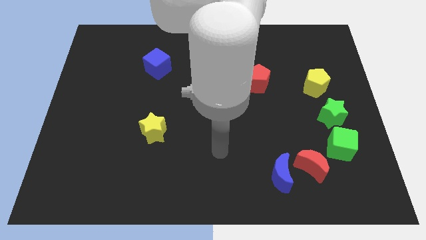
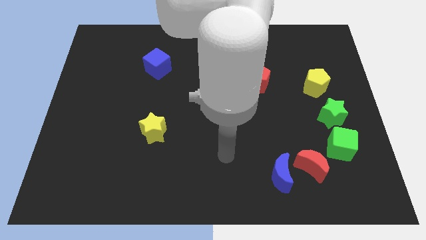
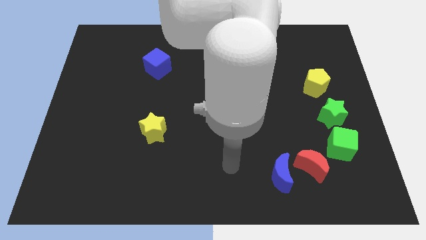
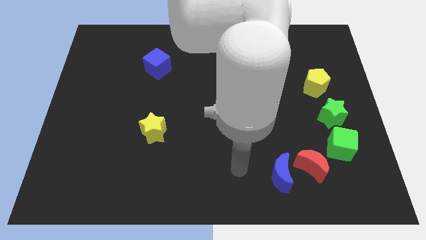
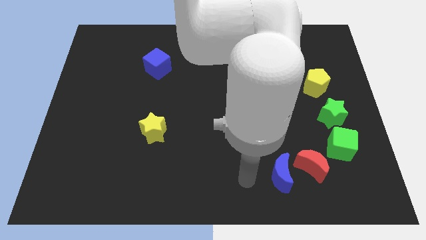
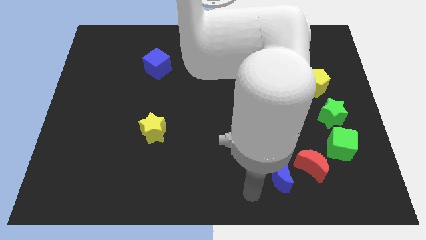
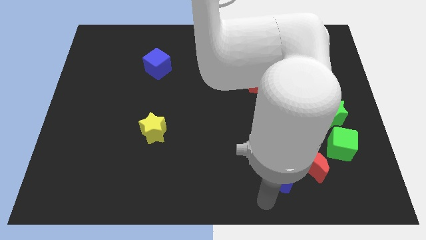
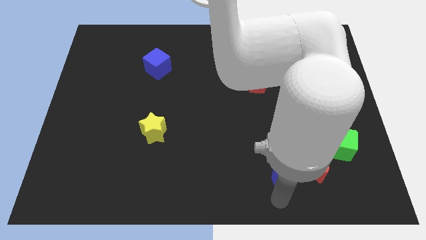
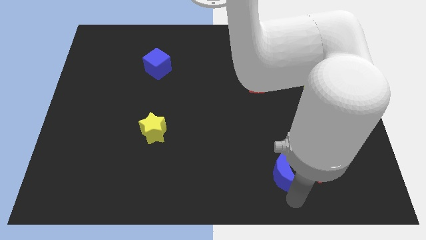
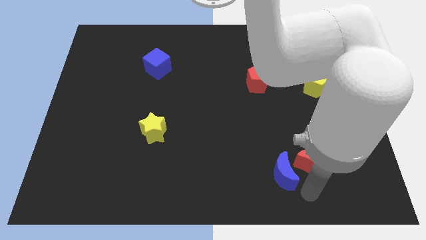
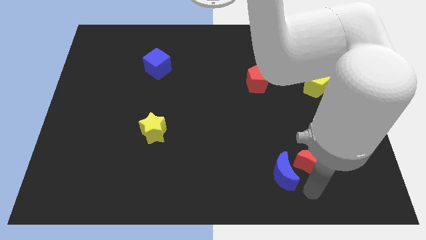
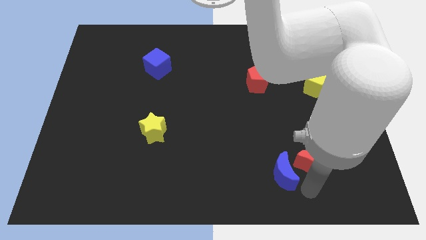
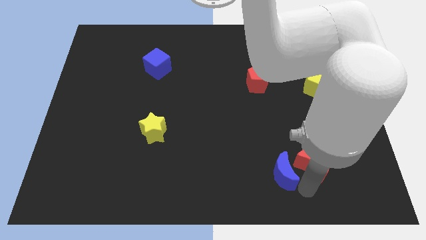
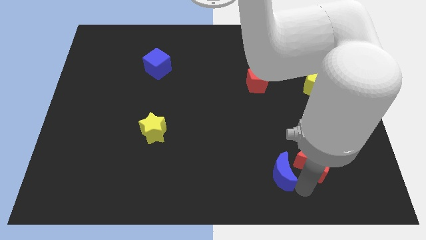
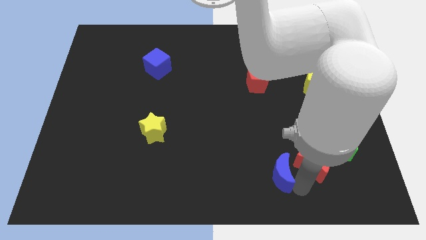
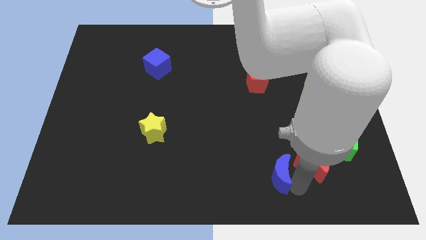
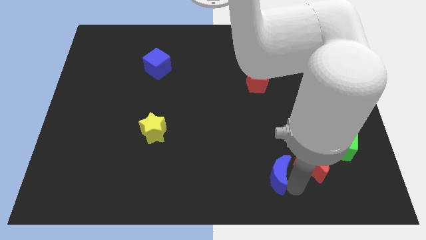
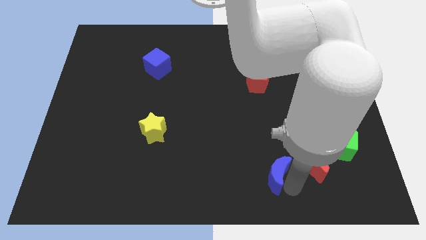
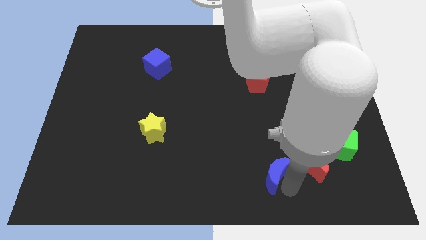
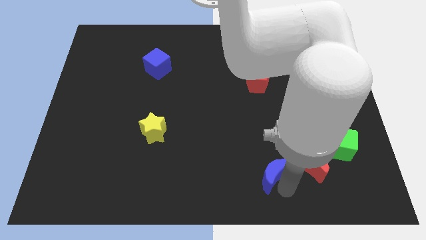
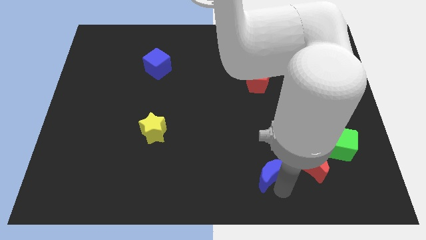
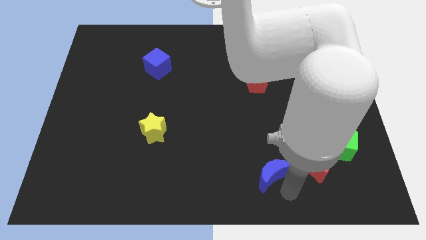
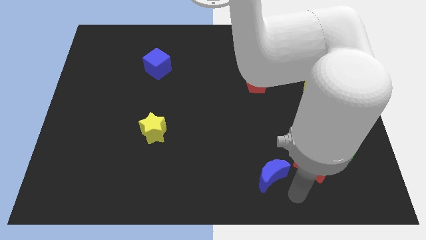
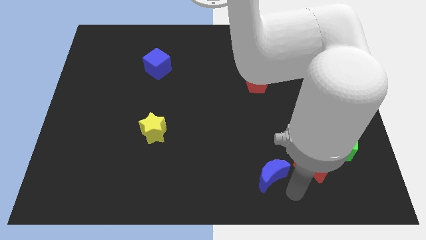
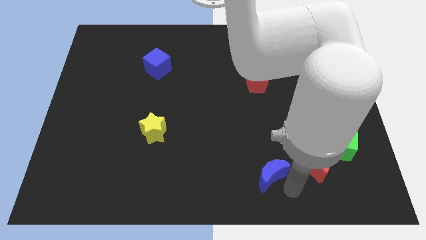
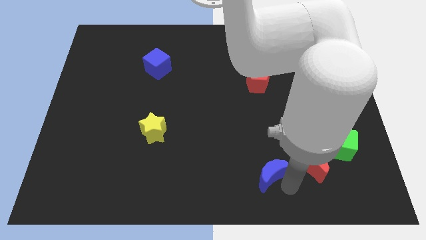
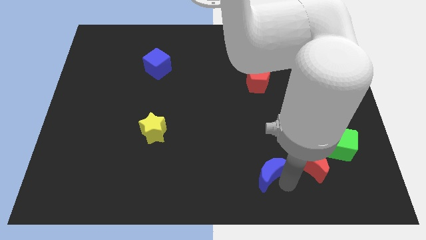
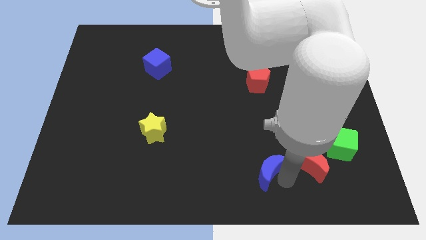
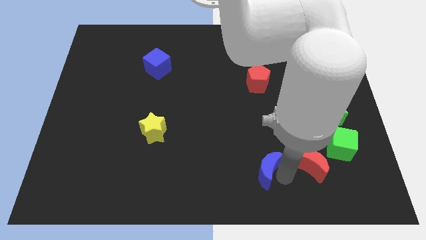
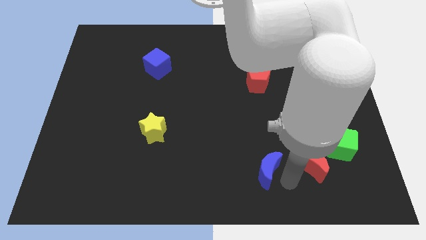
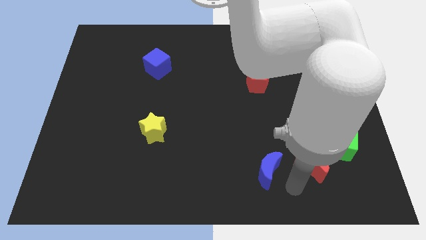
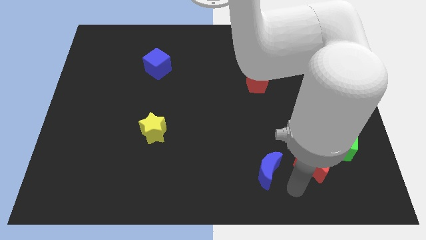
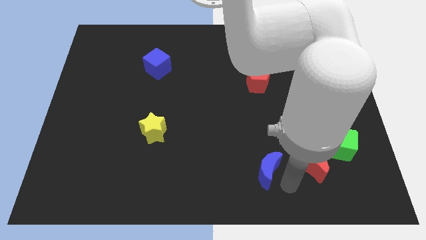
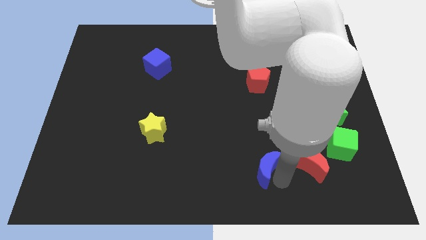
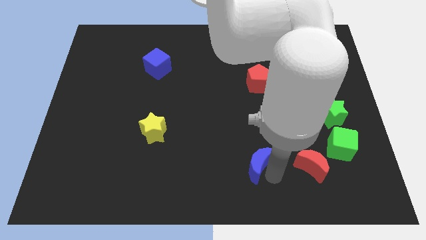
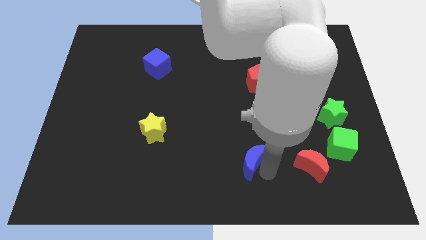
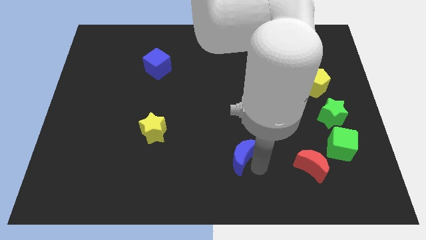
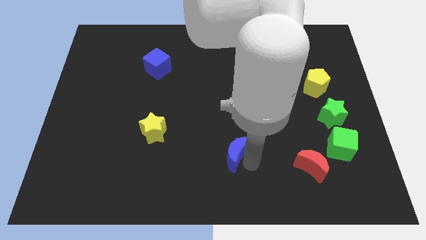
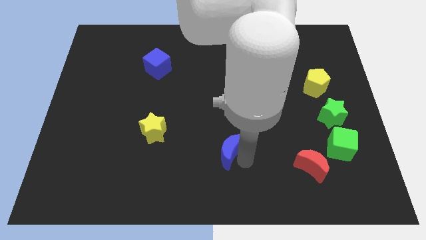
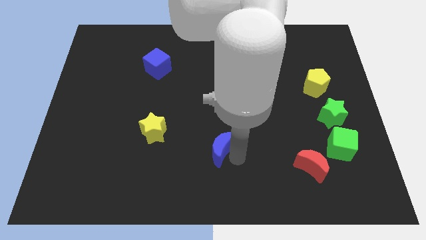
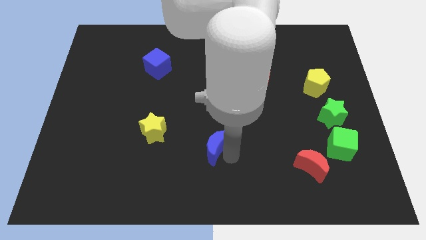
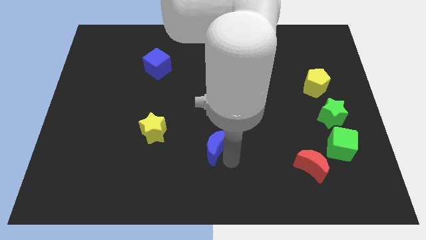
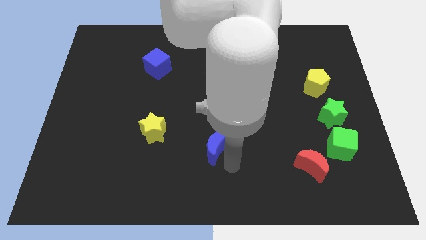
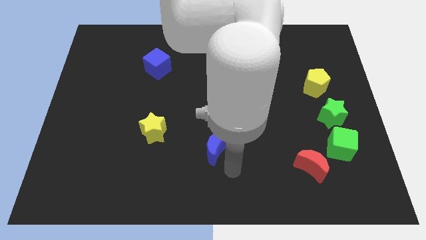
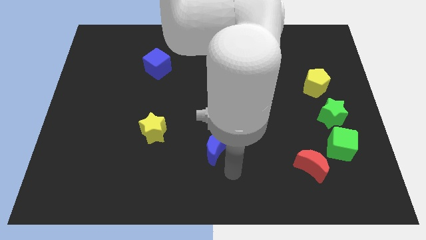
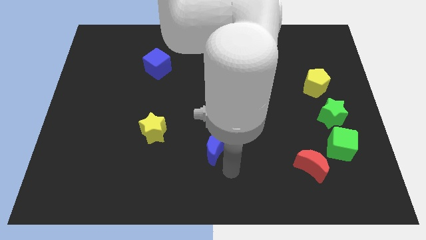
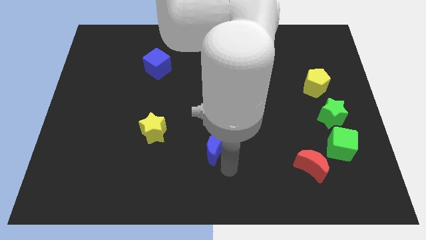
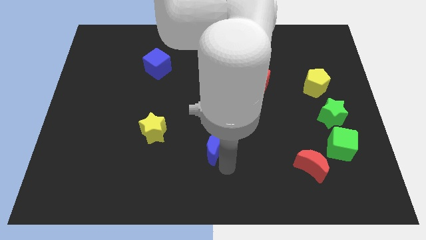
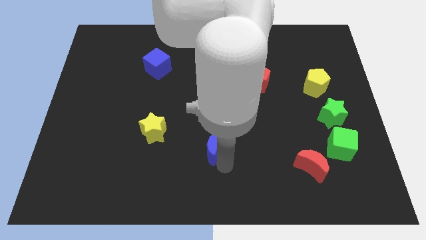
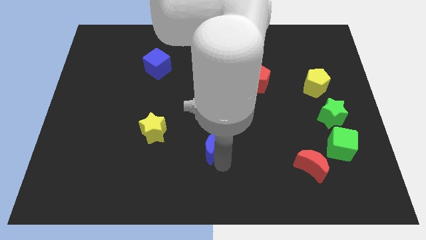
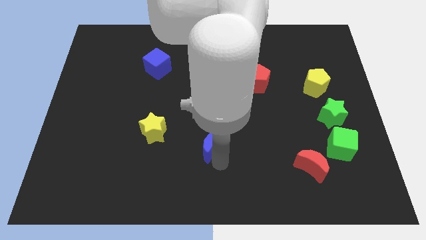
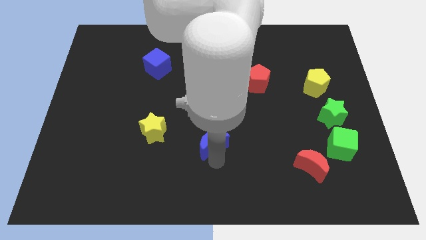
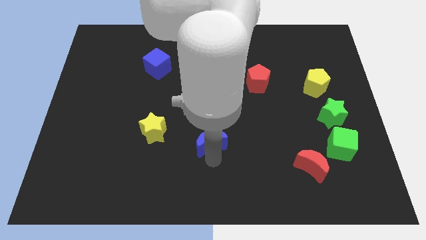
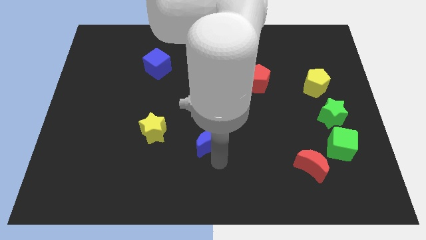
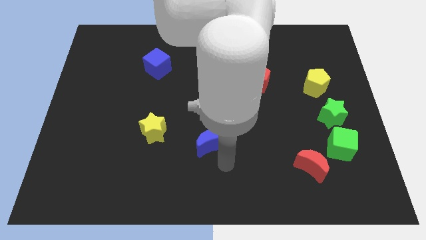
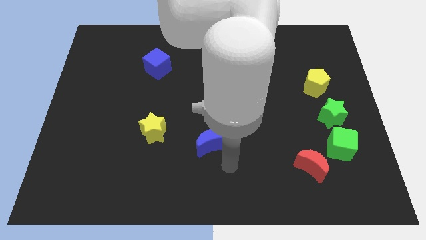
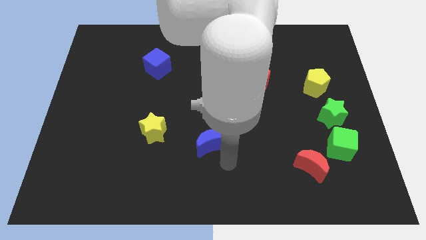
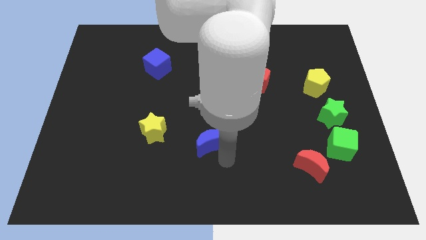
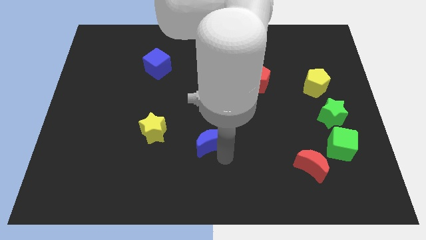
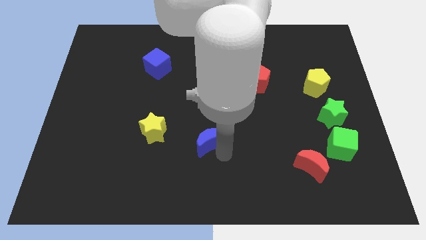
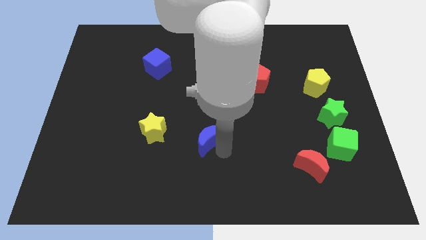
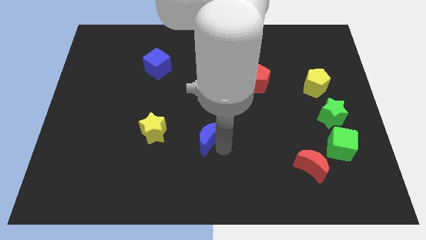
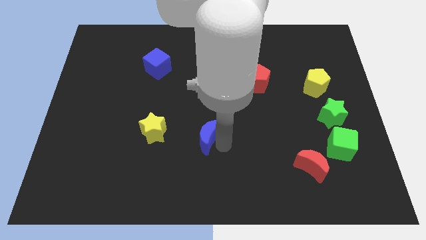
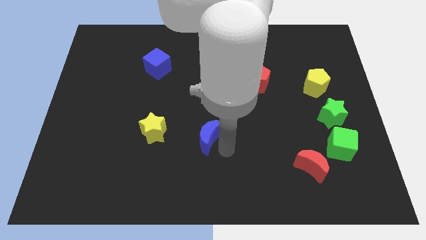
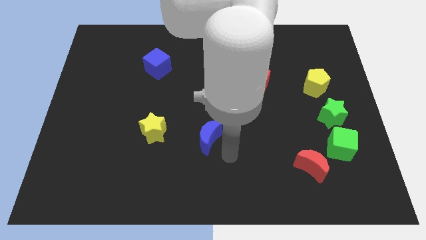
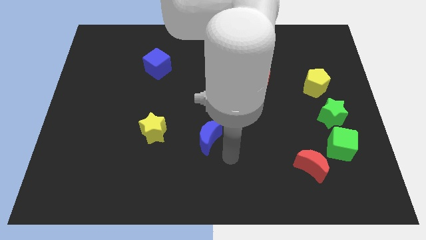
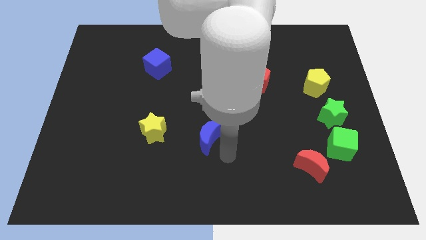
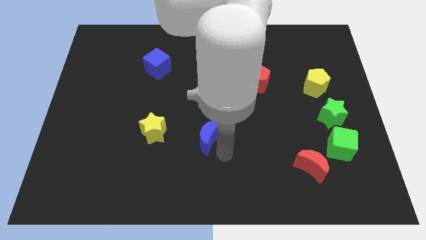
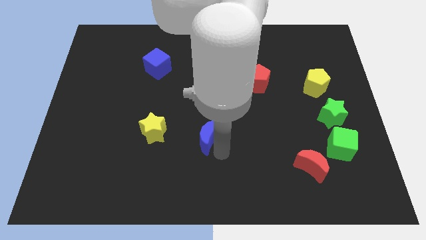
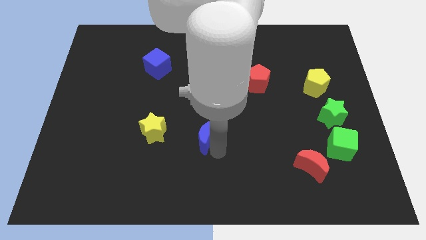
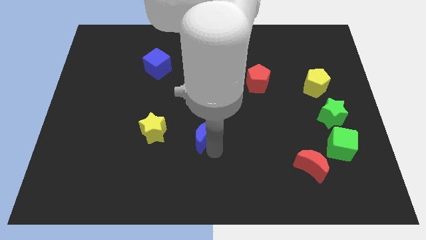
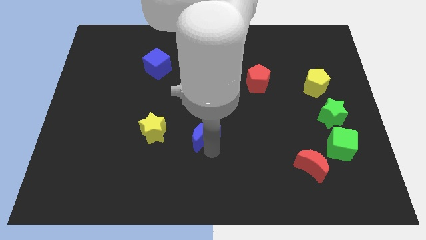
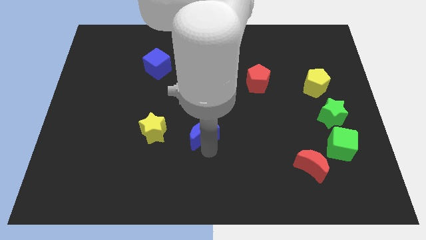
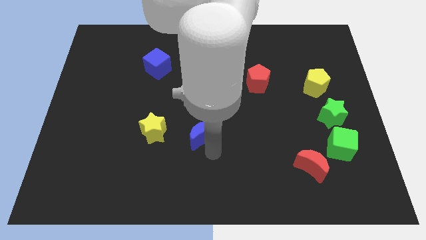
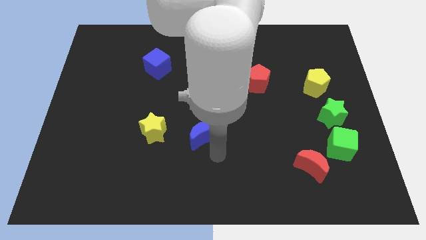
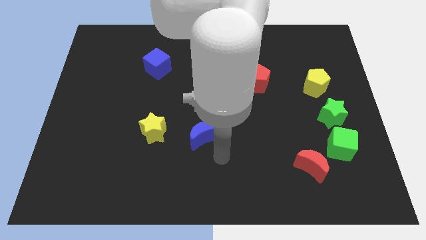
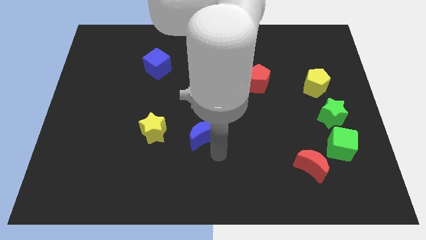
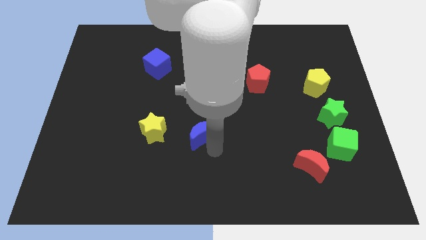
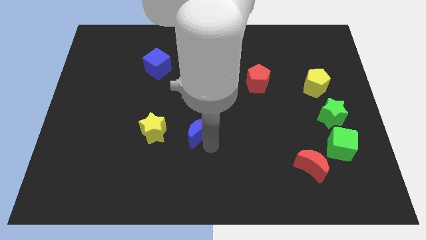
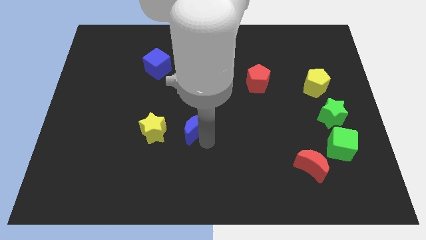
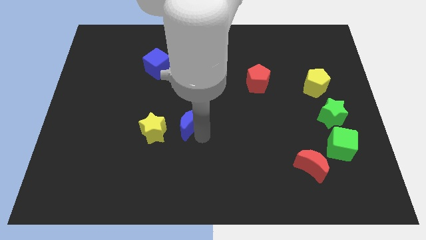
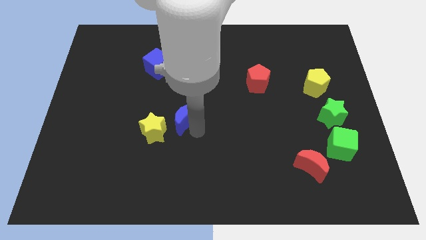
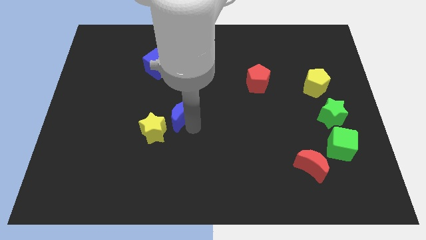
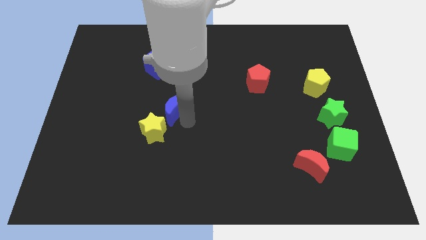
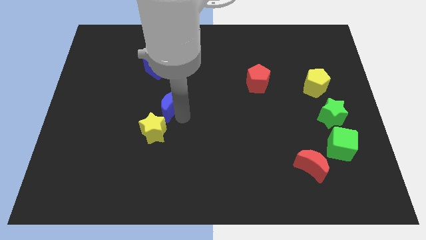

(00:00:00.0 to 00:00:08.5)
move the blue moon to the bottom of the blue cube
